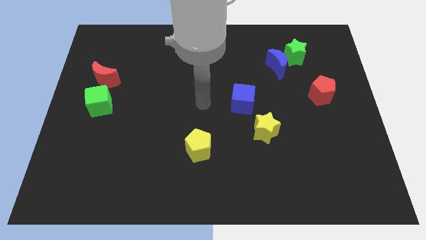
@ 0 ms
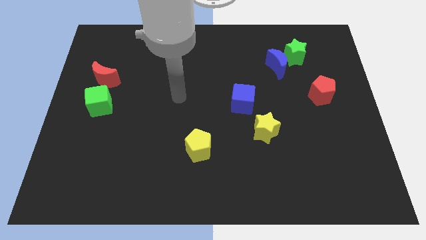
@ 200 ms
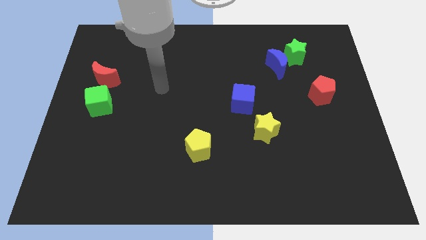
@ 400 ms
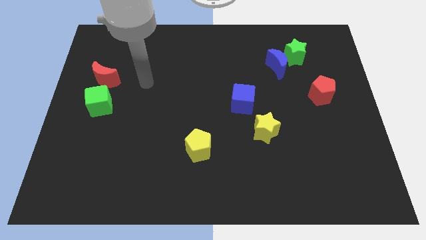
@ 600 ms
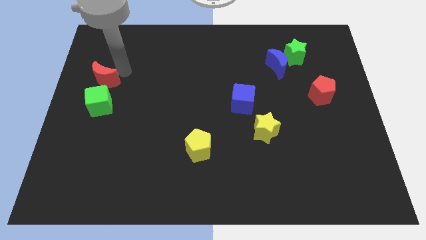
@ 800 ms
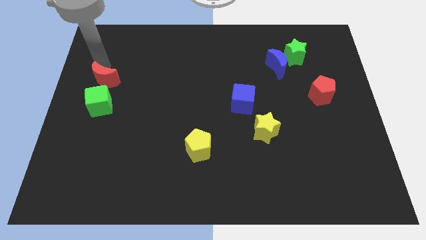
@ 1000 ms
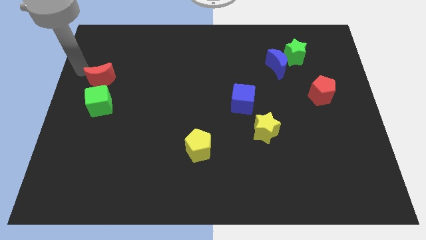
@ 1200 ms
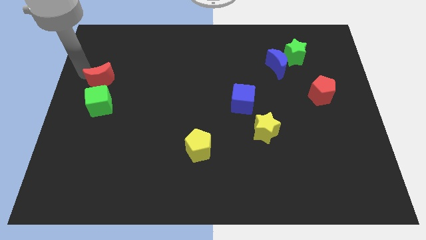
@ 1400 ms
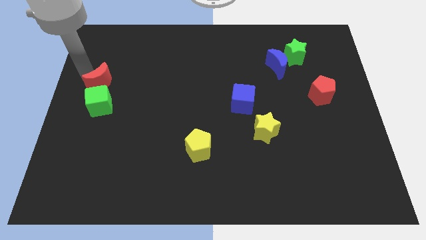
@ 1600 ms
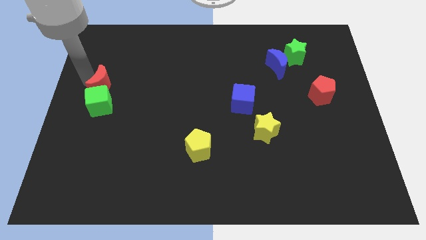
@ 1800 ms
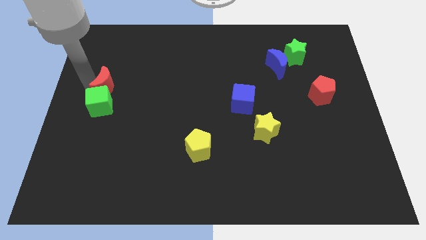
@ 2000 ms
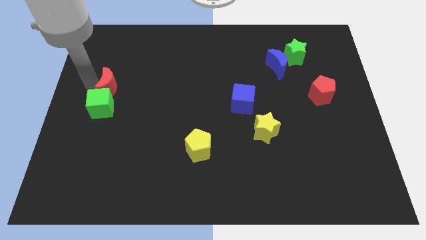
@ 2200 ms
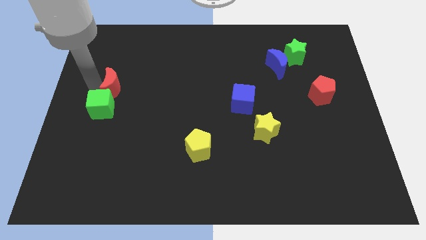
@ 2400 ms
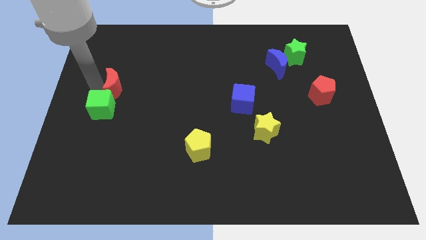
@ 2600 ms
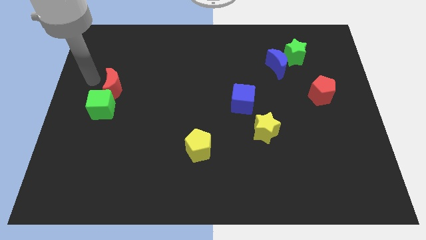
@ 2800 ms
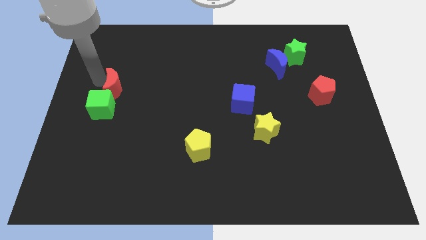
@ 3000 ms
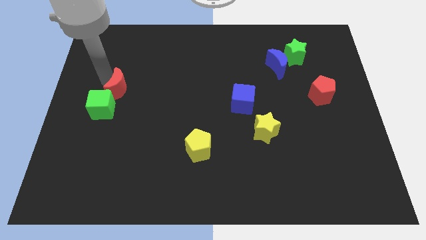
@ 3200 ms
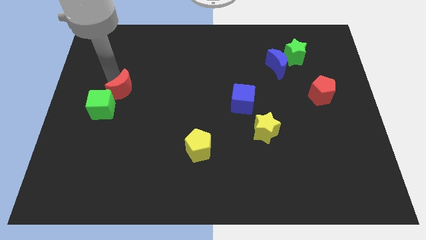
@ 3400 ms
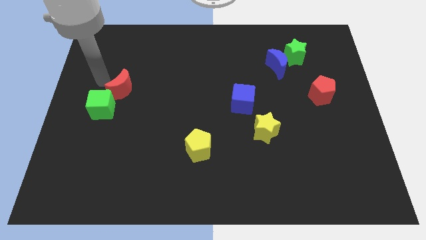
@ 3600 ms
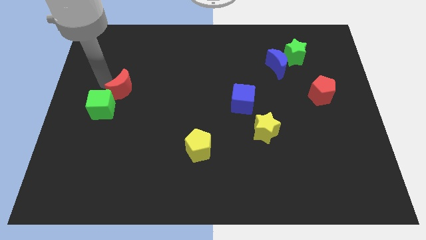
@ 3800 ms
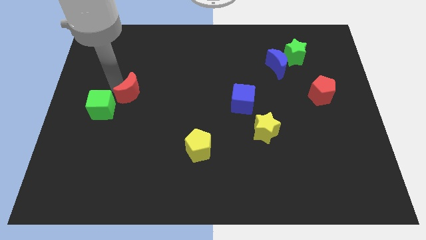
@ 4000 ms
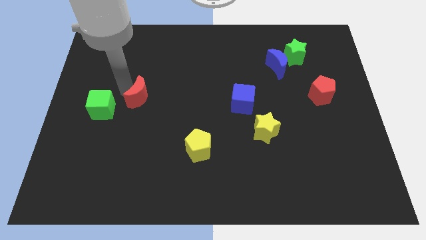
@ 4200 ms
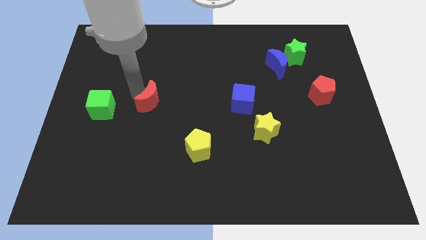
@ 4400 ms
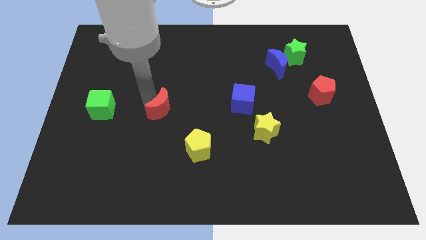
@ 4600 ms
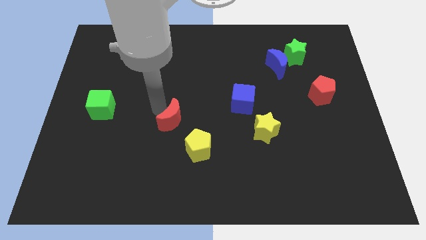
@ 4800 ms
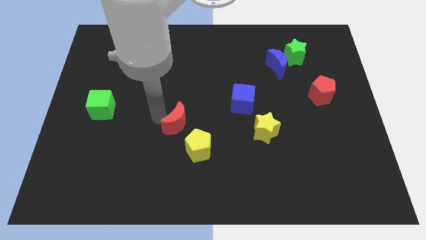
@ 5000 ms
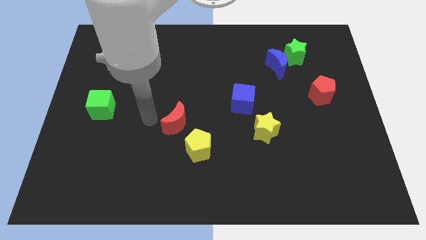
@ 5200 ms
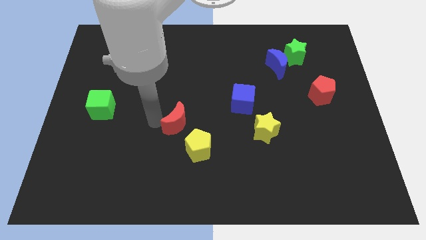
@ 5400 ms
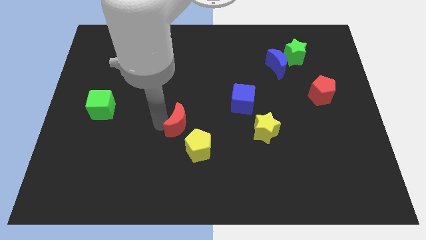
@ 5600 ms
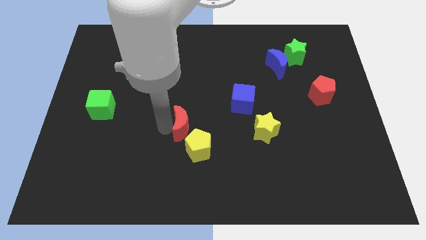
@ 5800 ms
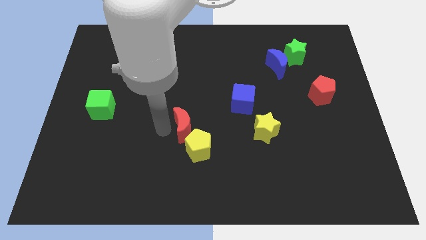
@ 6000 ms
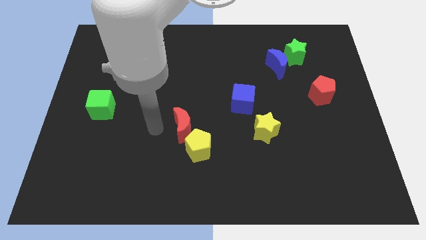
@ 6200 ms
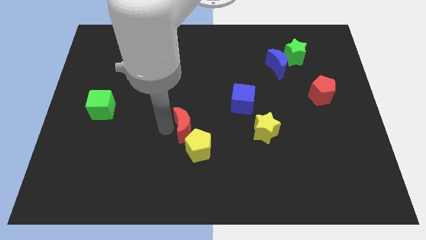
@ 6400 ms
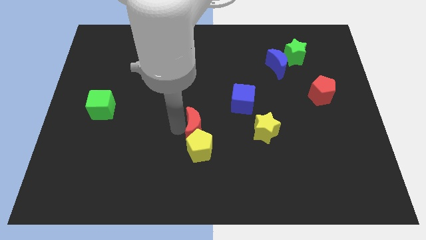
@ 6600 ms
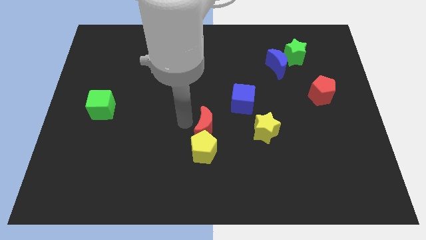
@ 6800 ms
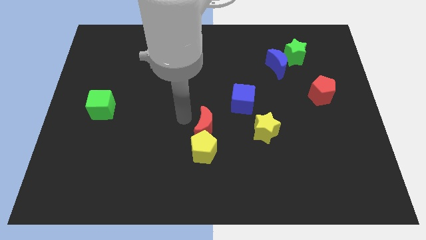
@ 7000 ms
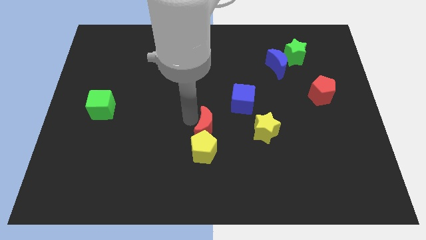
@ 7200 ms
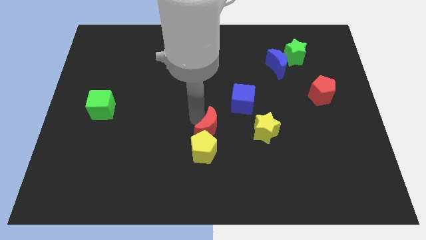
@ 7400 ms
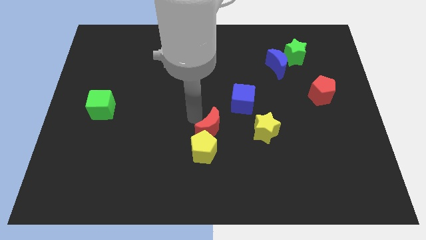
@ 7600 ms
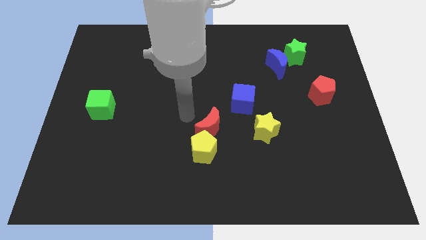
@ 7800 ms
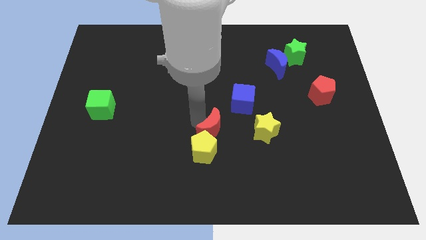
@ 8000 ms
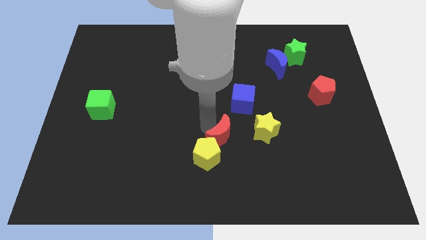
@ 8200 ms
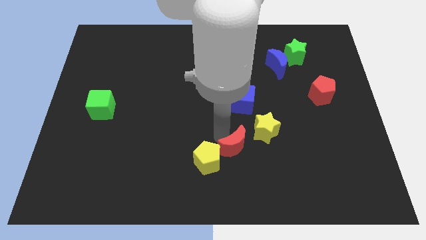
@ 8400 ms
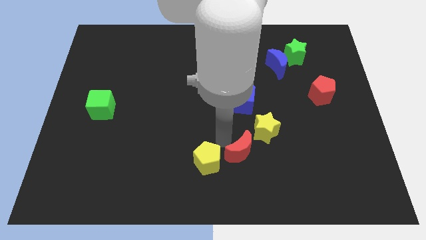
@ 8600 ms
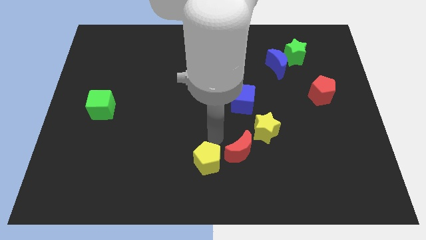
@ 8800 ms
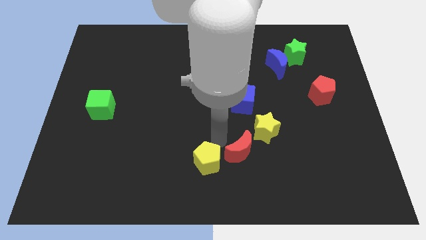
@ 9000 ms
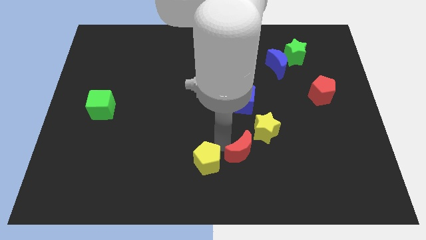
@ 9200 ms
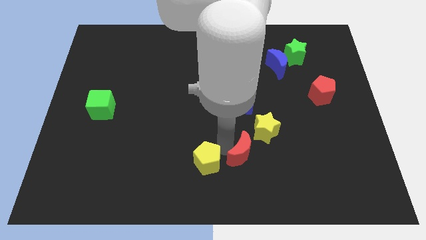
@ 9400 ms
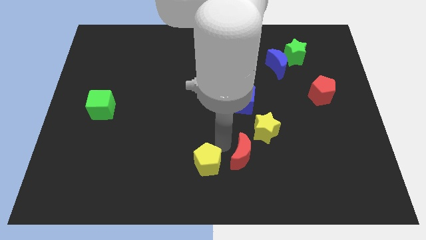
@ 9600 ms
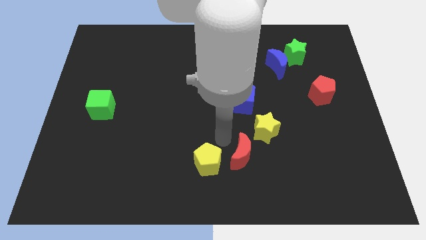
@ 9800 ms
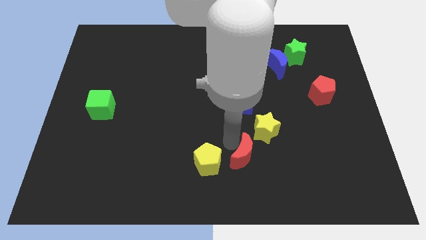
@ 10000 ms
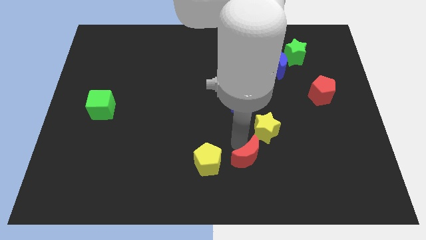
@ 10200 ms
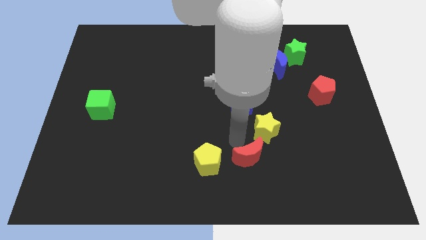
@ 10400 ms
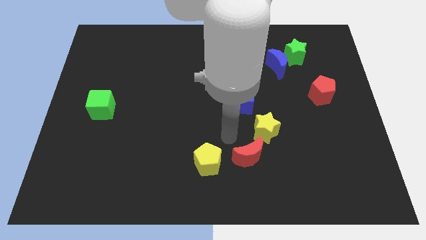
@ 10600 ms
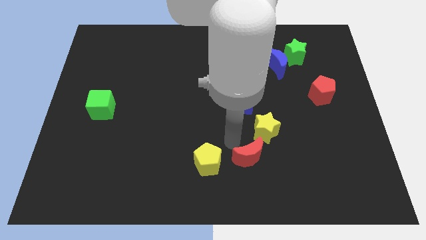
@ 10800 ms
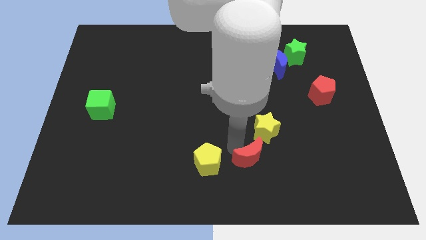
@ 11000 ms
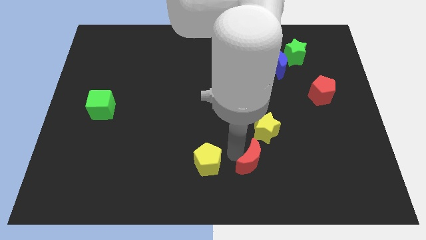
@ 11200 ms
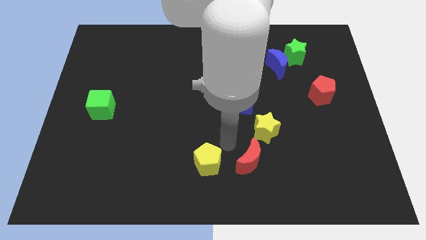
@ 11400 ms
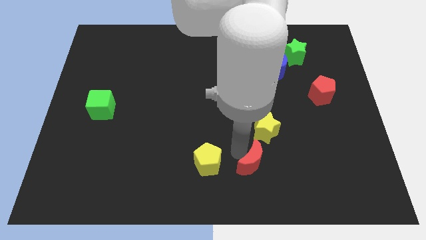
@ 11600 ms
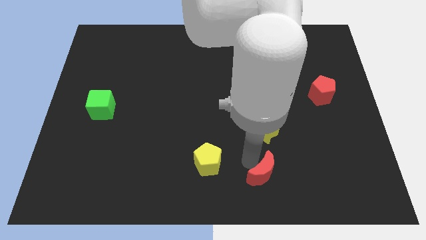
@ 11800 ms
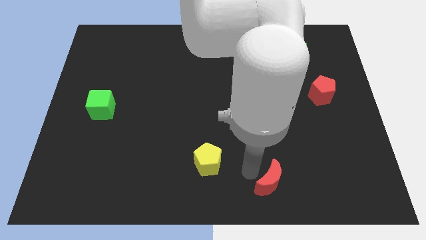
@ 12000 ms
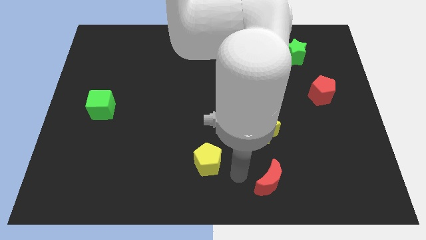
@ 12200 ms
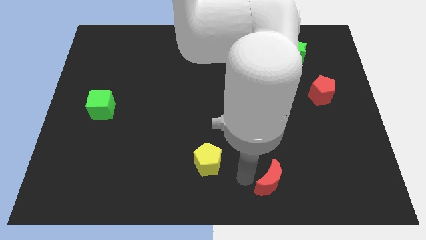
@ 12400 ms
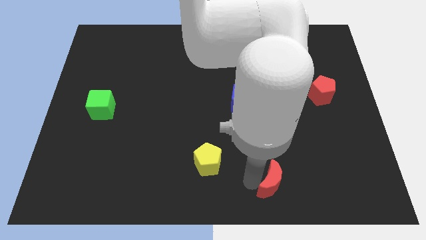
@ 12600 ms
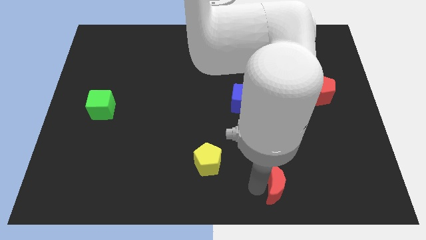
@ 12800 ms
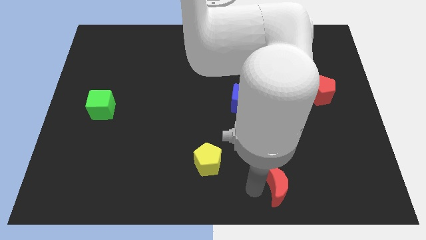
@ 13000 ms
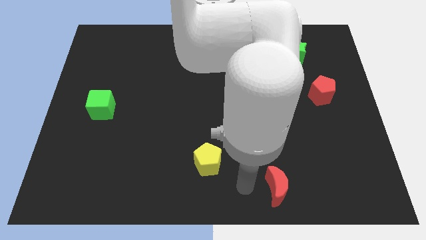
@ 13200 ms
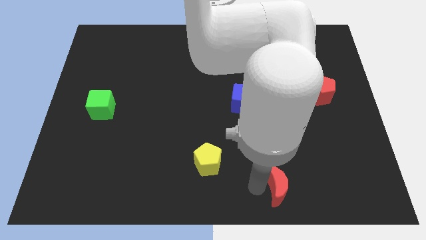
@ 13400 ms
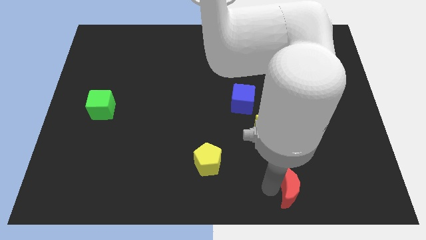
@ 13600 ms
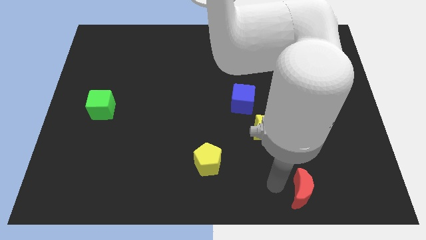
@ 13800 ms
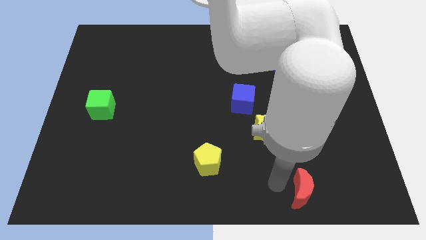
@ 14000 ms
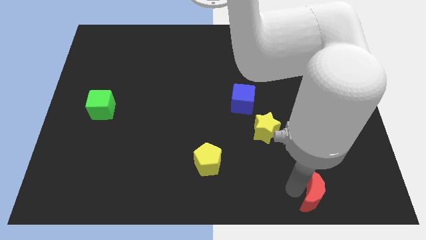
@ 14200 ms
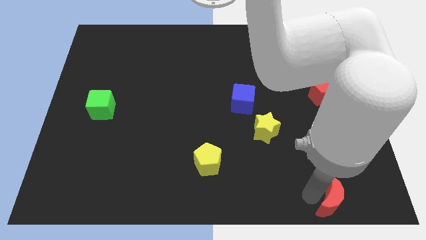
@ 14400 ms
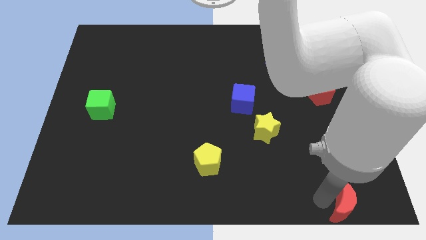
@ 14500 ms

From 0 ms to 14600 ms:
slide the red moon to the bottom right corner

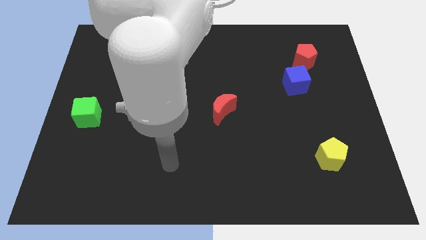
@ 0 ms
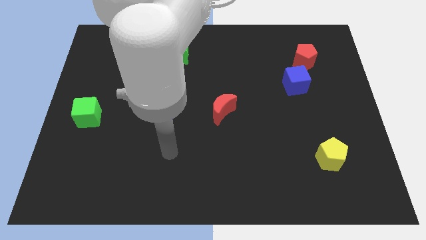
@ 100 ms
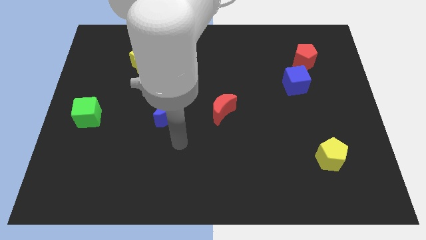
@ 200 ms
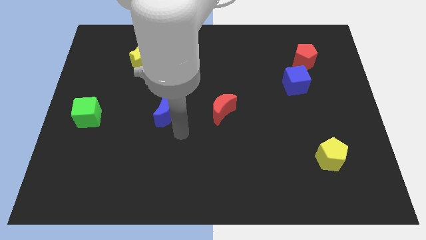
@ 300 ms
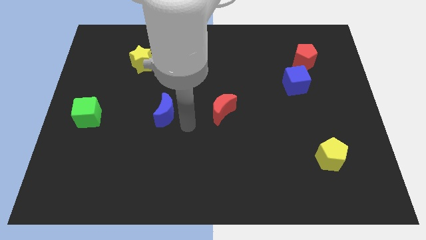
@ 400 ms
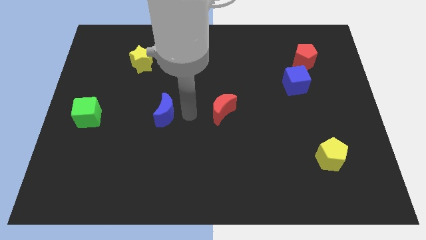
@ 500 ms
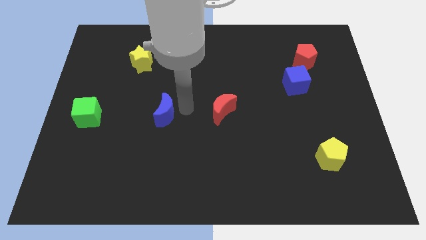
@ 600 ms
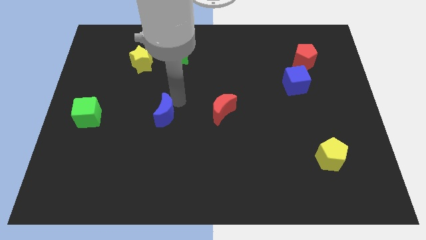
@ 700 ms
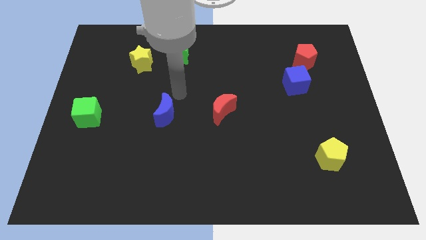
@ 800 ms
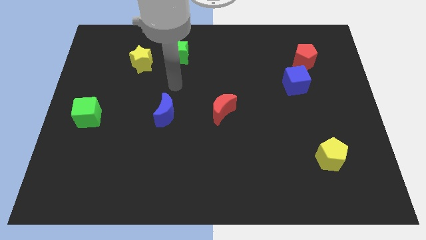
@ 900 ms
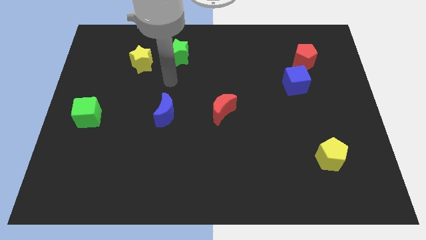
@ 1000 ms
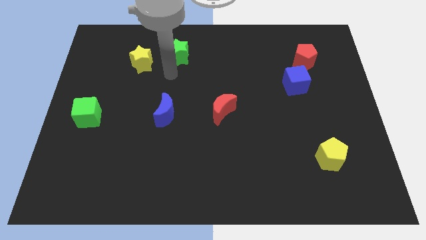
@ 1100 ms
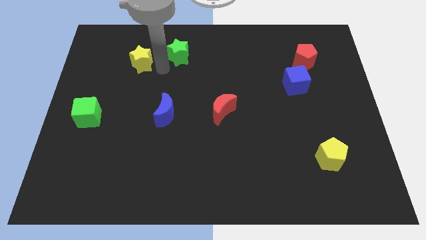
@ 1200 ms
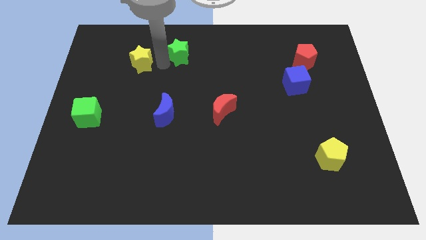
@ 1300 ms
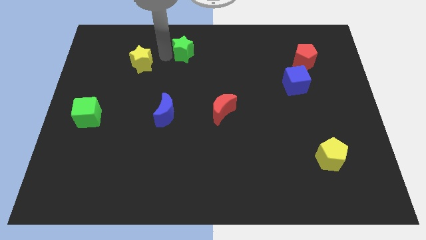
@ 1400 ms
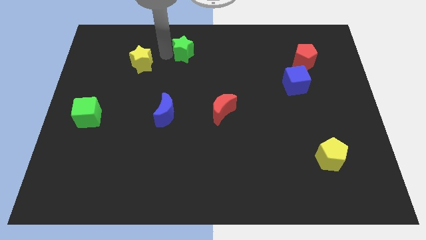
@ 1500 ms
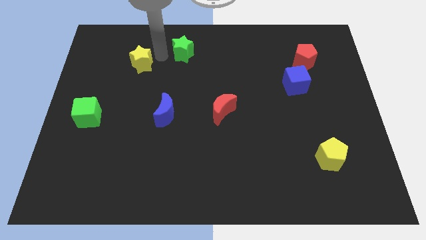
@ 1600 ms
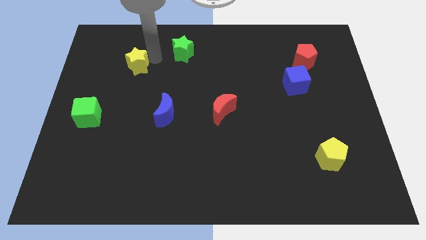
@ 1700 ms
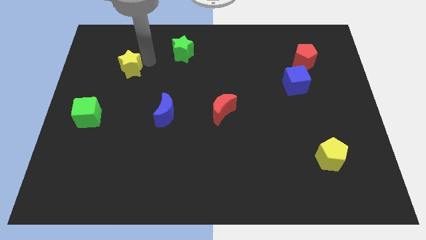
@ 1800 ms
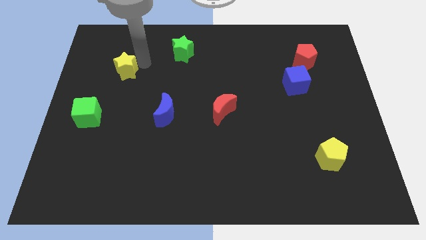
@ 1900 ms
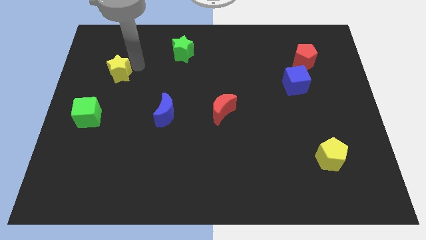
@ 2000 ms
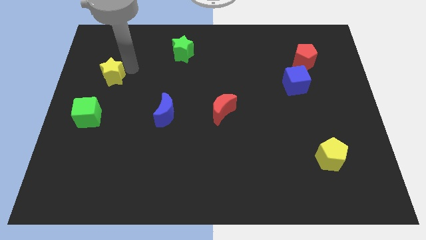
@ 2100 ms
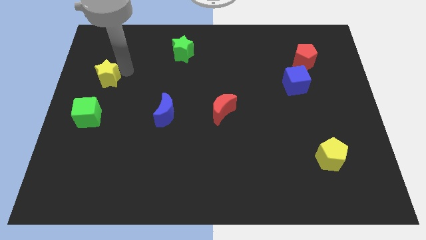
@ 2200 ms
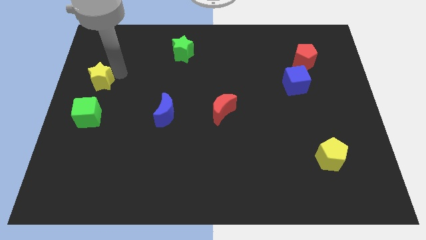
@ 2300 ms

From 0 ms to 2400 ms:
move the yellow star to the left side of the board
